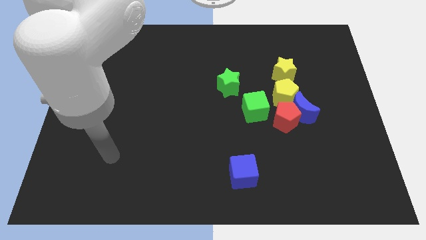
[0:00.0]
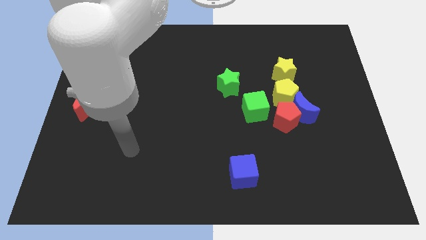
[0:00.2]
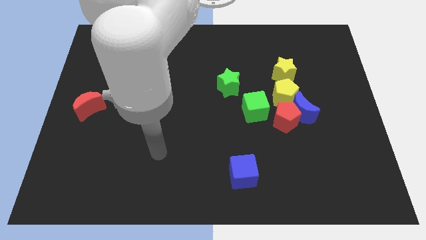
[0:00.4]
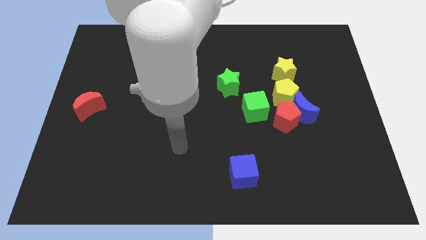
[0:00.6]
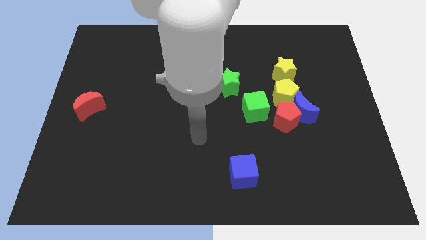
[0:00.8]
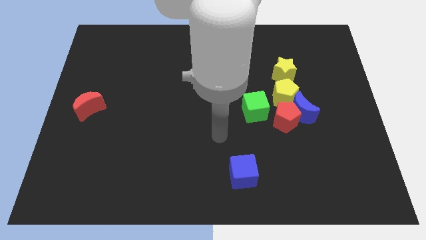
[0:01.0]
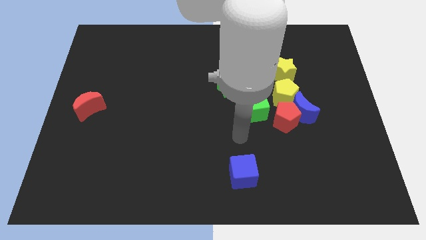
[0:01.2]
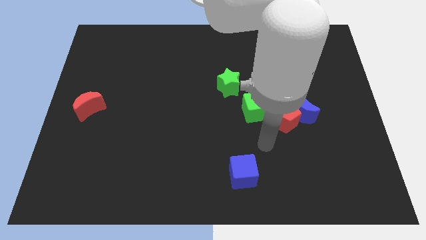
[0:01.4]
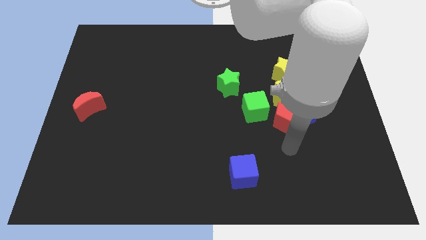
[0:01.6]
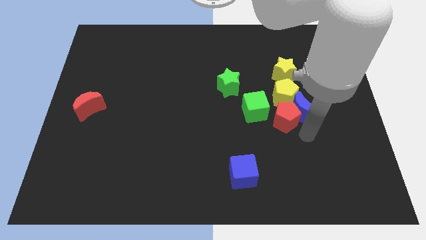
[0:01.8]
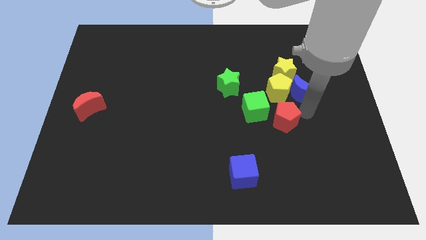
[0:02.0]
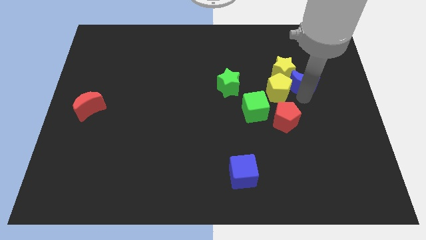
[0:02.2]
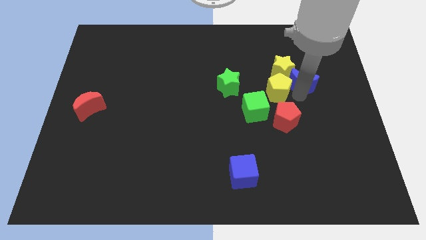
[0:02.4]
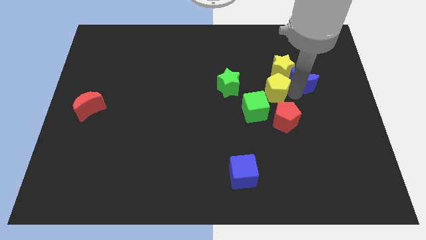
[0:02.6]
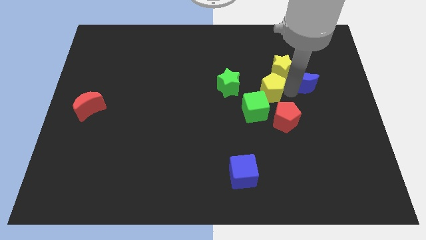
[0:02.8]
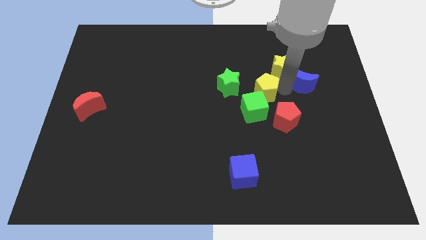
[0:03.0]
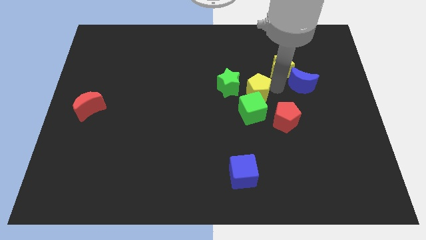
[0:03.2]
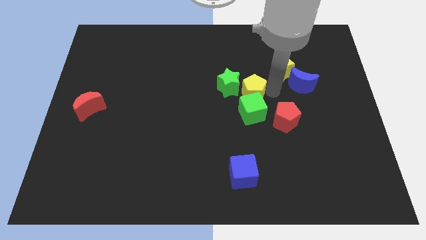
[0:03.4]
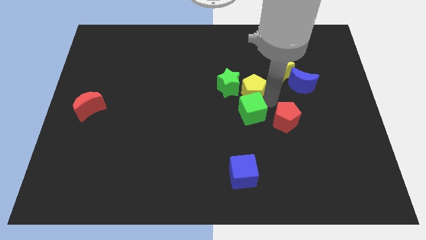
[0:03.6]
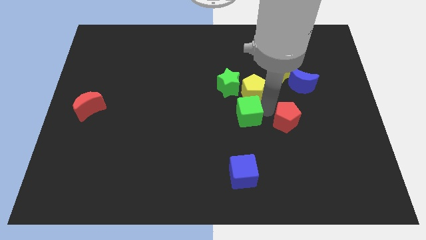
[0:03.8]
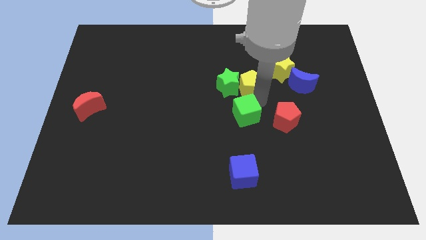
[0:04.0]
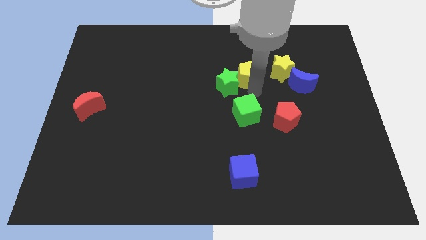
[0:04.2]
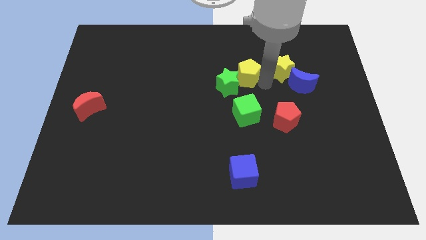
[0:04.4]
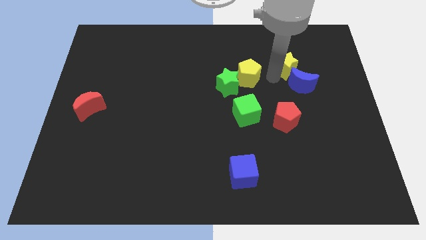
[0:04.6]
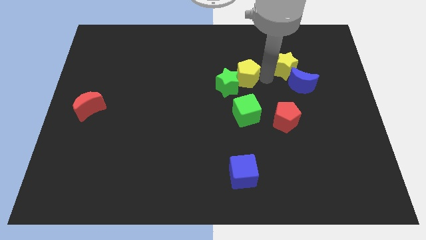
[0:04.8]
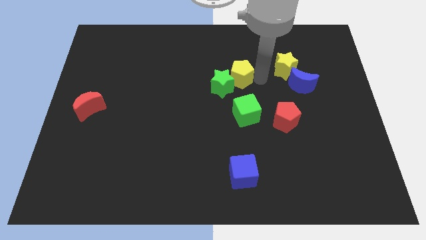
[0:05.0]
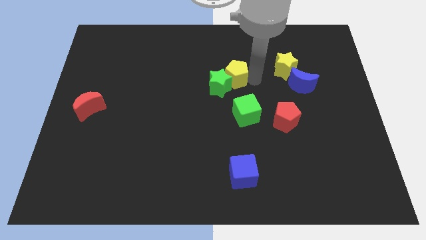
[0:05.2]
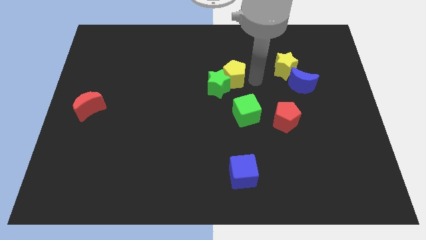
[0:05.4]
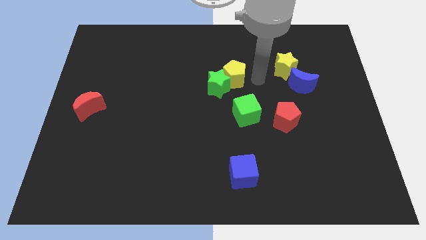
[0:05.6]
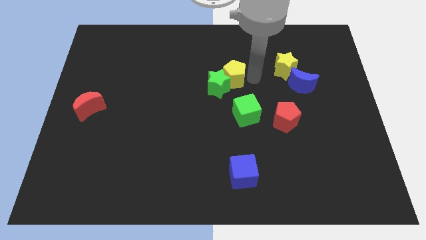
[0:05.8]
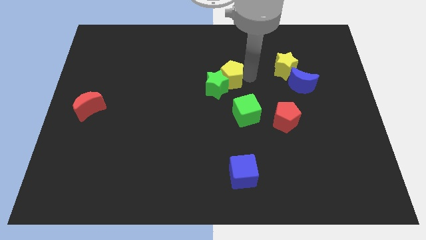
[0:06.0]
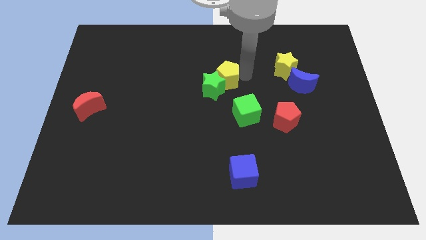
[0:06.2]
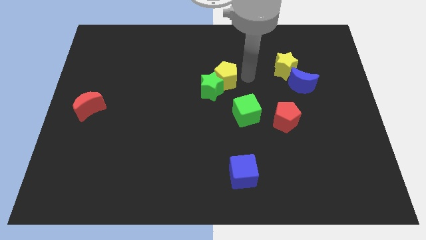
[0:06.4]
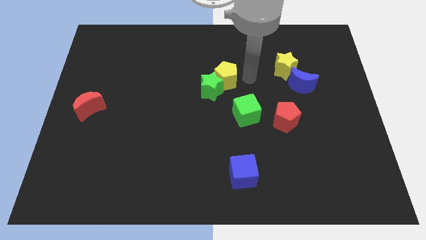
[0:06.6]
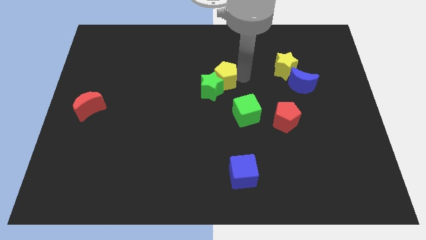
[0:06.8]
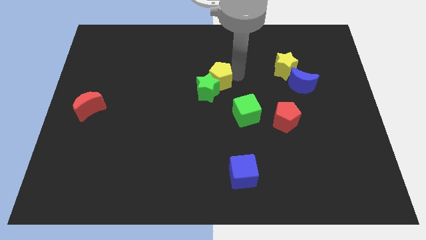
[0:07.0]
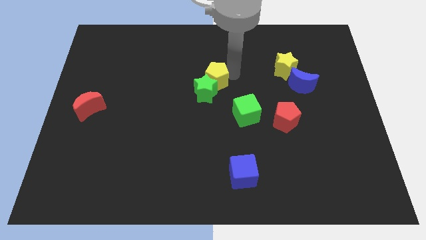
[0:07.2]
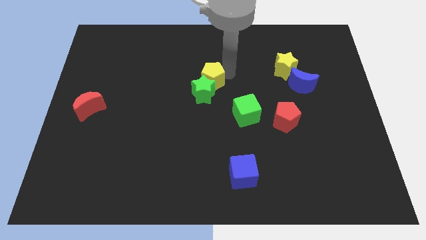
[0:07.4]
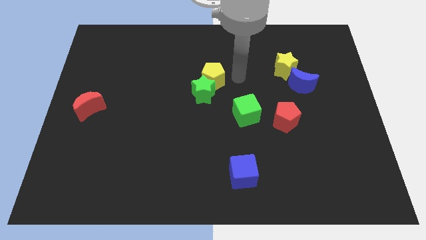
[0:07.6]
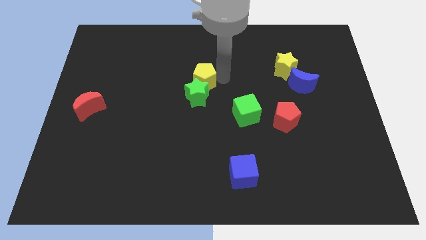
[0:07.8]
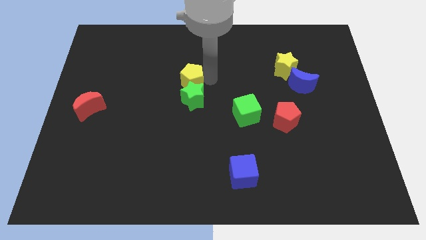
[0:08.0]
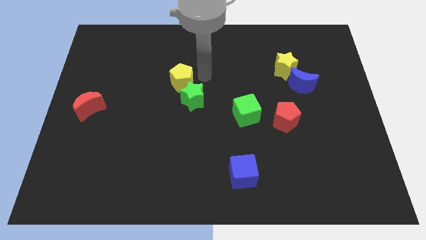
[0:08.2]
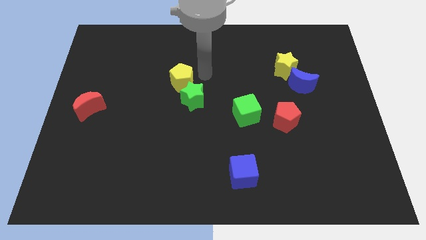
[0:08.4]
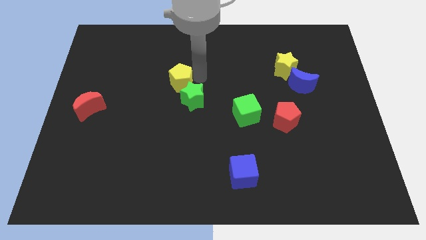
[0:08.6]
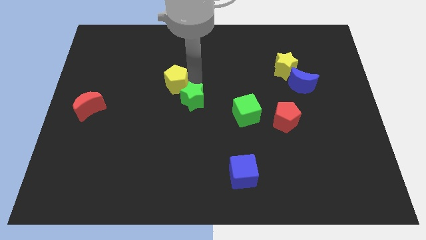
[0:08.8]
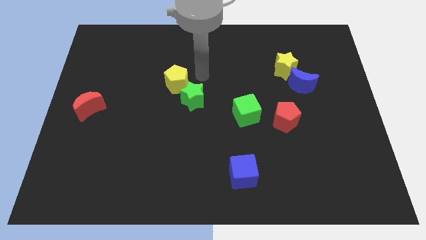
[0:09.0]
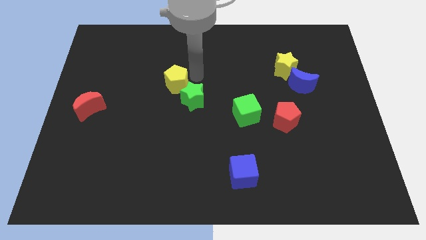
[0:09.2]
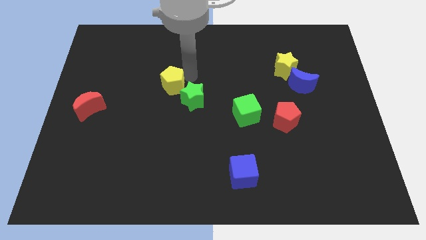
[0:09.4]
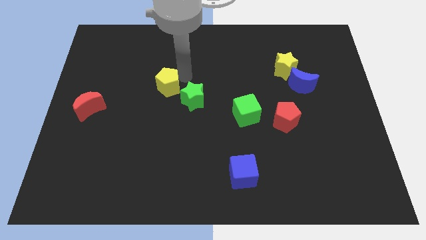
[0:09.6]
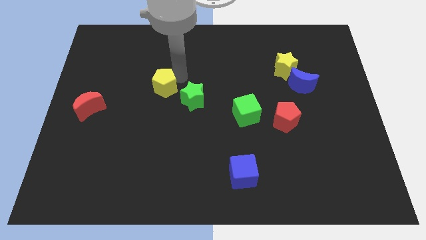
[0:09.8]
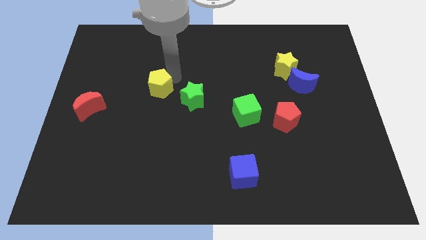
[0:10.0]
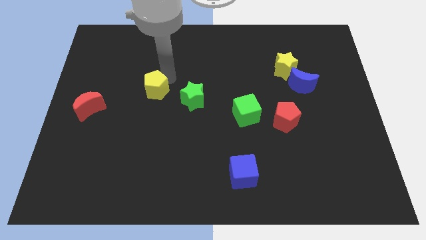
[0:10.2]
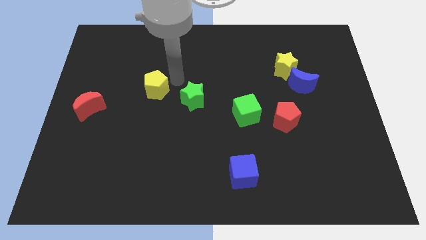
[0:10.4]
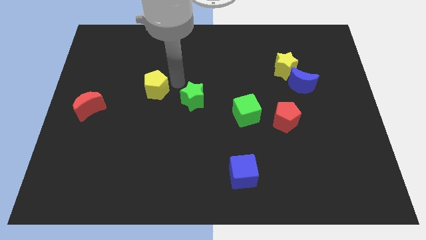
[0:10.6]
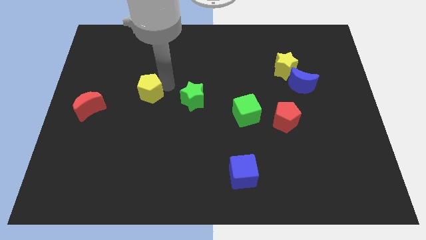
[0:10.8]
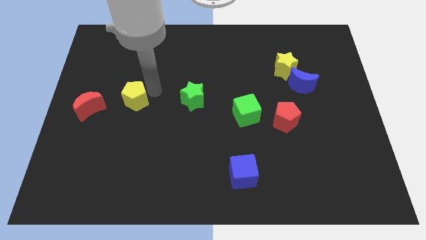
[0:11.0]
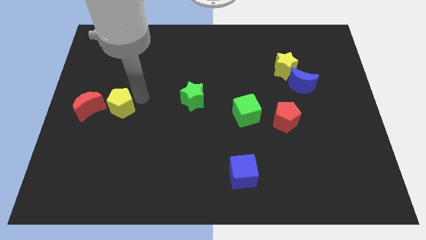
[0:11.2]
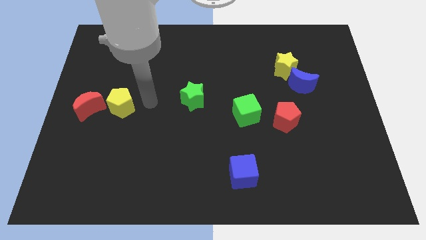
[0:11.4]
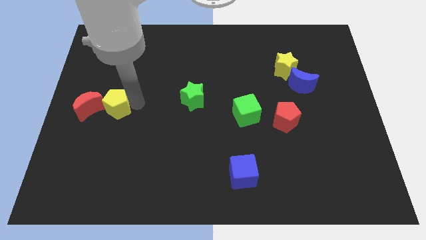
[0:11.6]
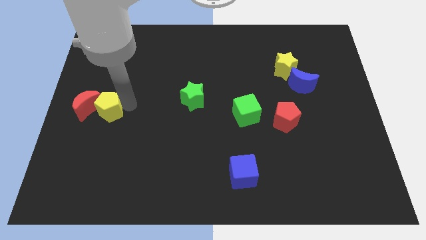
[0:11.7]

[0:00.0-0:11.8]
slide the yellow pentagon to the red moon

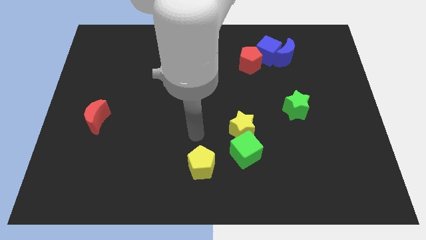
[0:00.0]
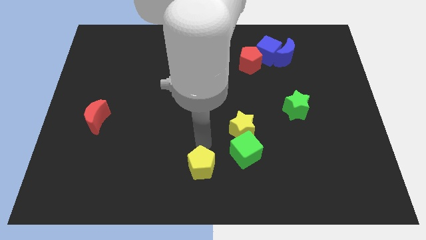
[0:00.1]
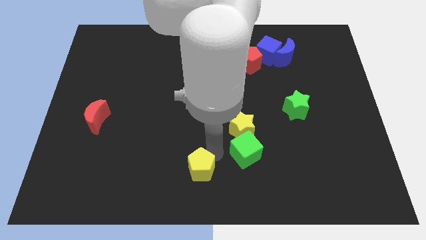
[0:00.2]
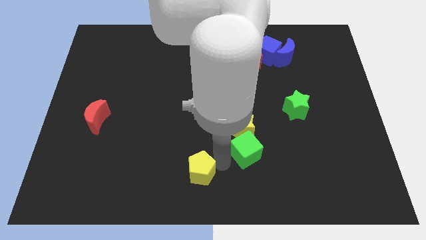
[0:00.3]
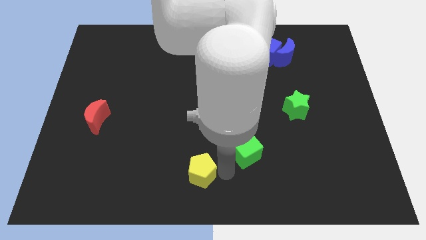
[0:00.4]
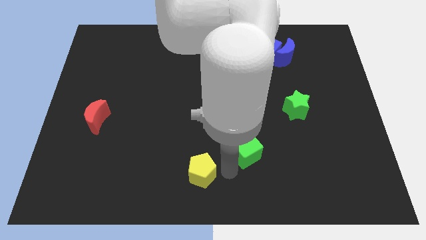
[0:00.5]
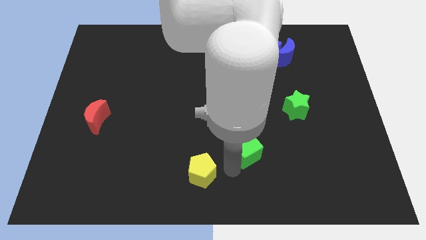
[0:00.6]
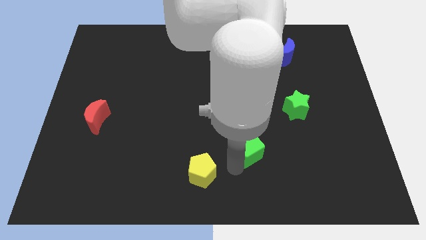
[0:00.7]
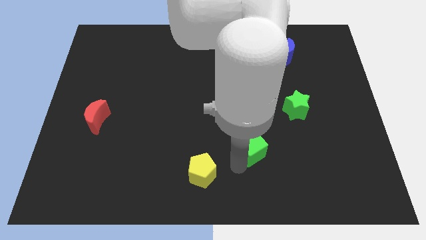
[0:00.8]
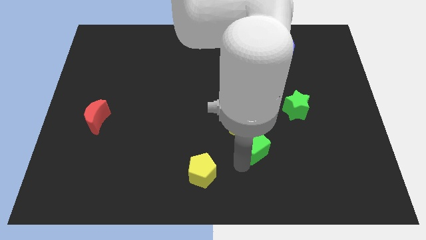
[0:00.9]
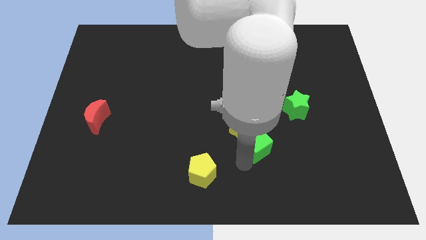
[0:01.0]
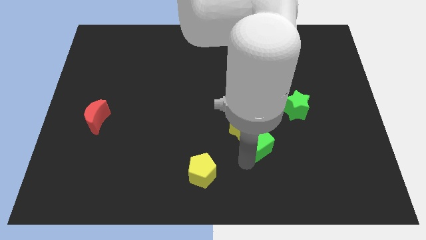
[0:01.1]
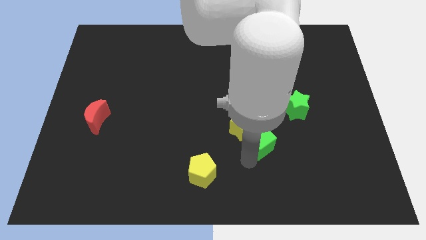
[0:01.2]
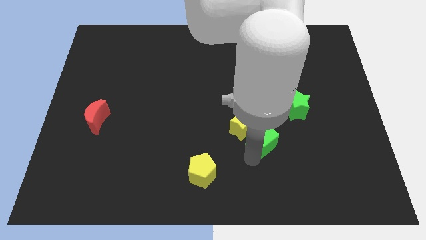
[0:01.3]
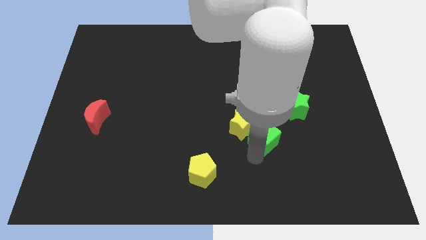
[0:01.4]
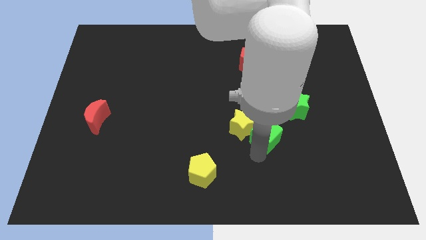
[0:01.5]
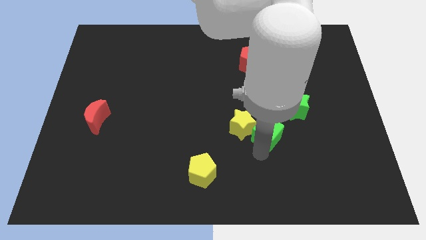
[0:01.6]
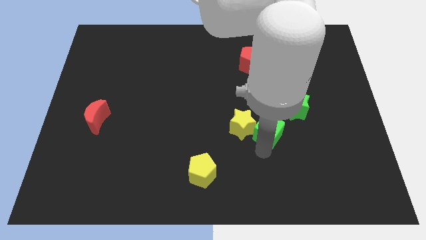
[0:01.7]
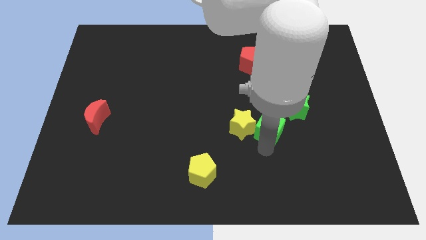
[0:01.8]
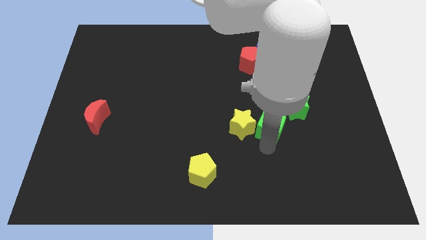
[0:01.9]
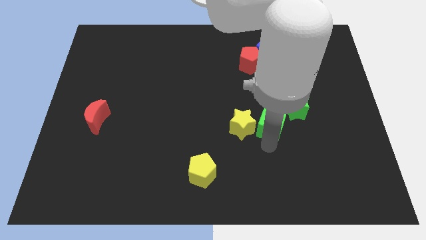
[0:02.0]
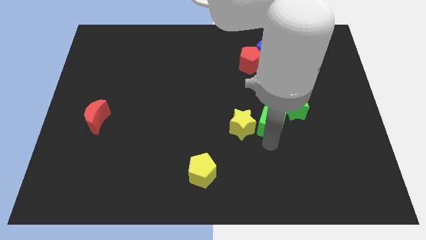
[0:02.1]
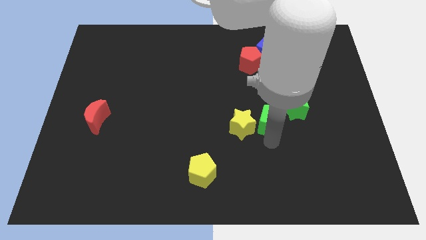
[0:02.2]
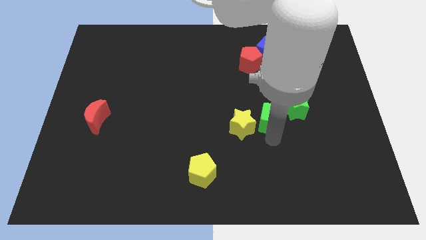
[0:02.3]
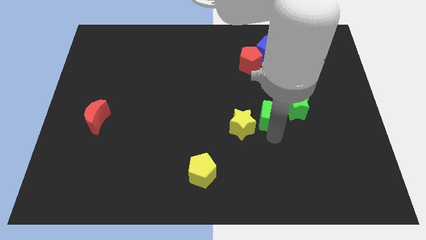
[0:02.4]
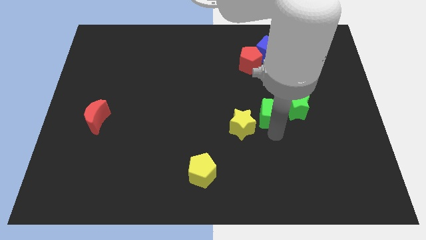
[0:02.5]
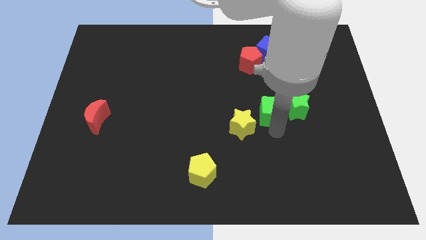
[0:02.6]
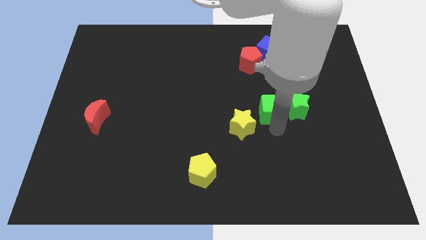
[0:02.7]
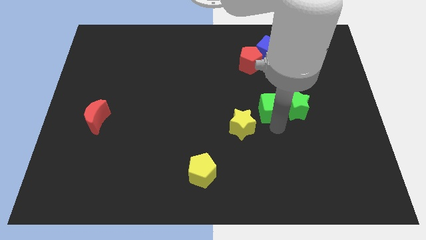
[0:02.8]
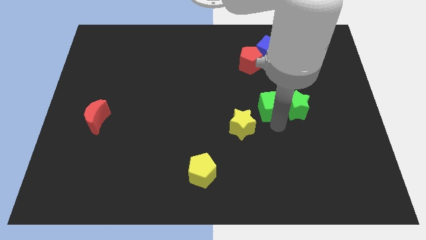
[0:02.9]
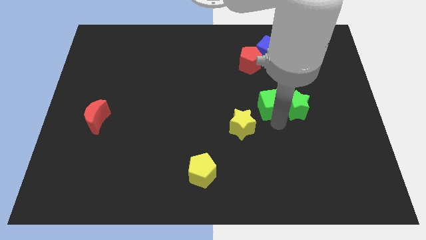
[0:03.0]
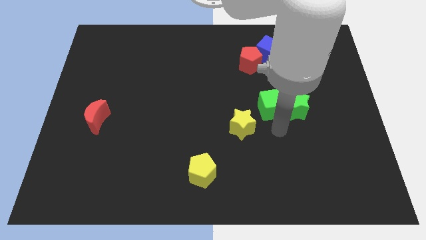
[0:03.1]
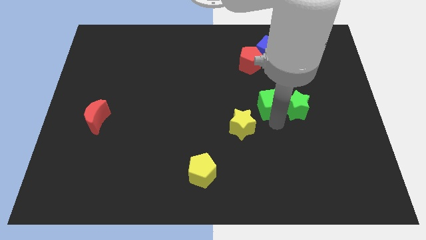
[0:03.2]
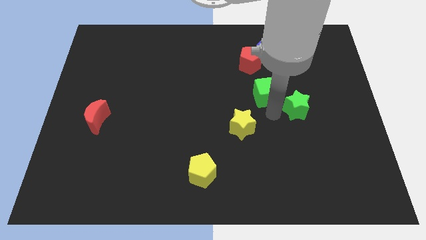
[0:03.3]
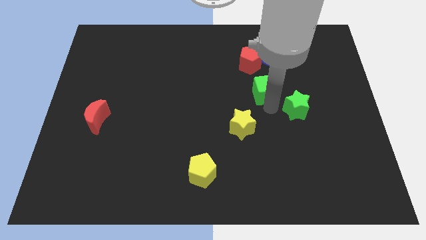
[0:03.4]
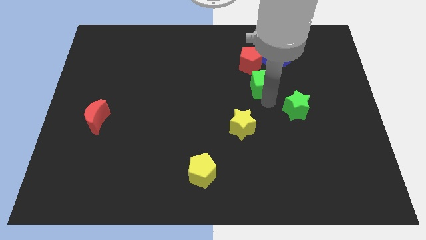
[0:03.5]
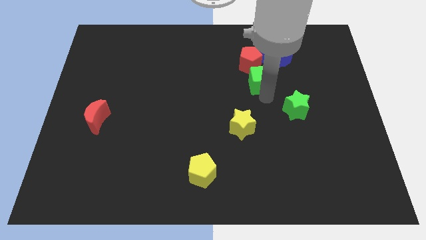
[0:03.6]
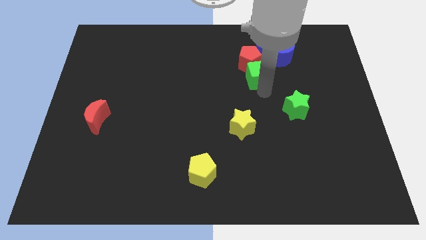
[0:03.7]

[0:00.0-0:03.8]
push the green cube towards the red pentagon
